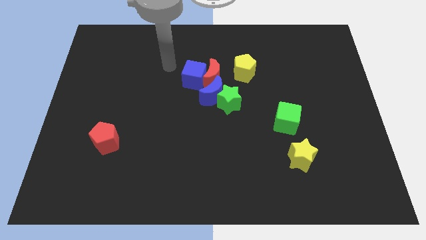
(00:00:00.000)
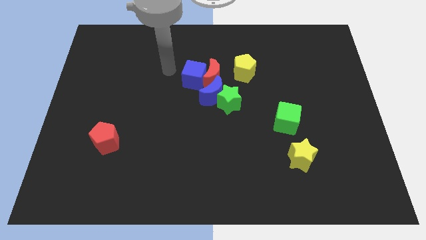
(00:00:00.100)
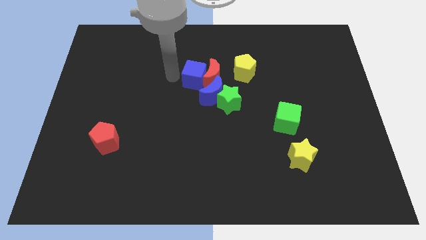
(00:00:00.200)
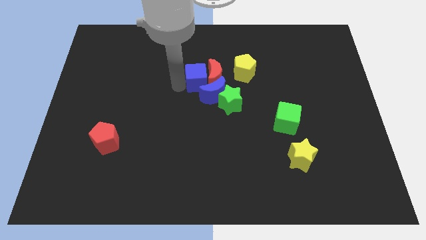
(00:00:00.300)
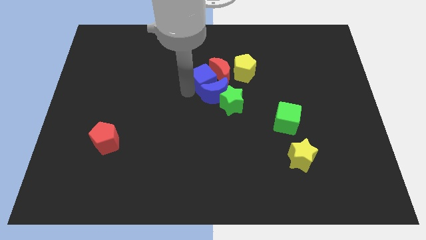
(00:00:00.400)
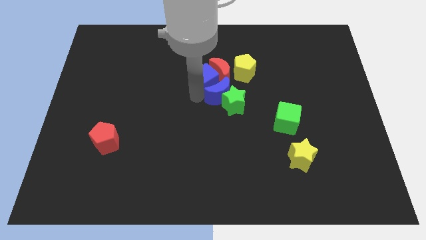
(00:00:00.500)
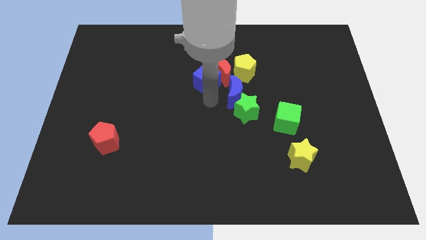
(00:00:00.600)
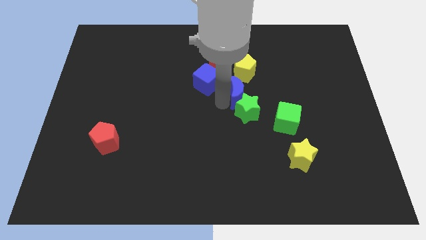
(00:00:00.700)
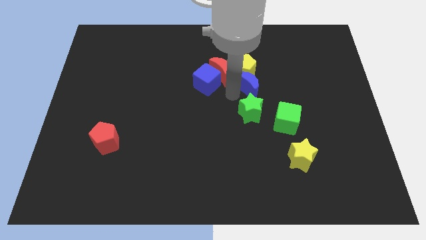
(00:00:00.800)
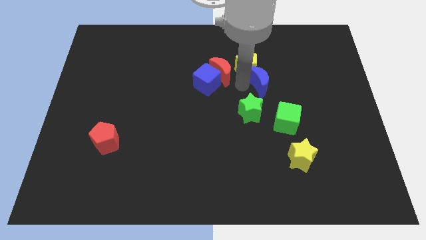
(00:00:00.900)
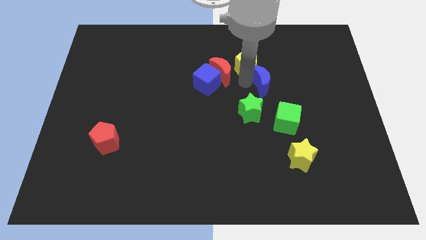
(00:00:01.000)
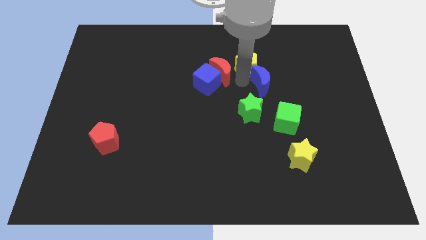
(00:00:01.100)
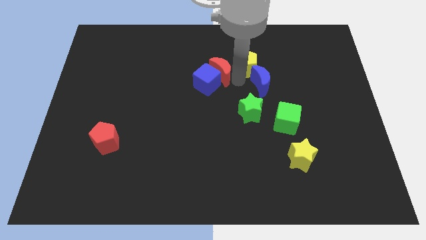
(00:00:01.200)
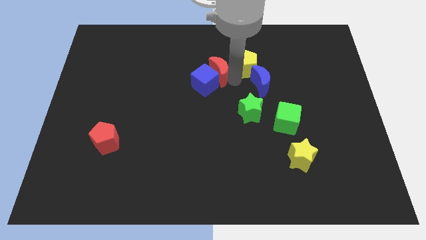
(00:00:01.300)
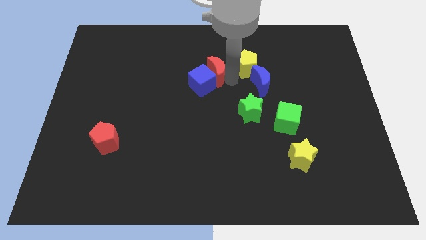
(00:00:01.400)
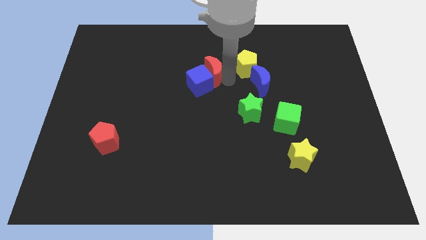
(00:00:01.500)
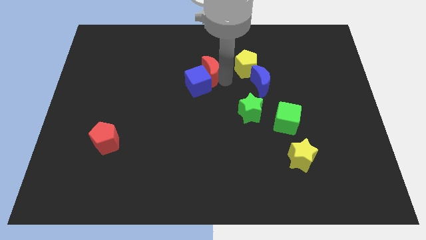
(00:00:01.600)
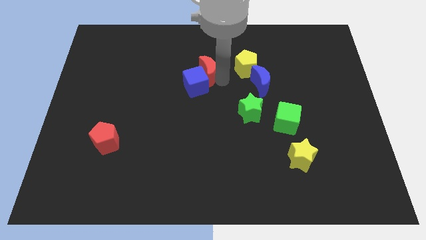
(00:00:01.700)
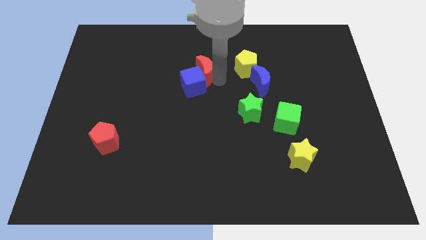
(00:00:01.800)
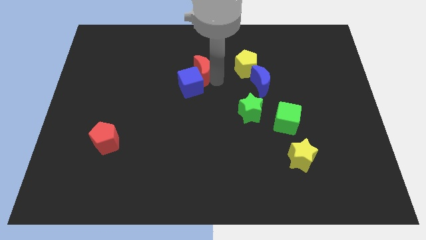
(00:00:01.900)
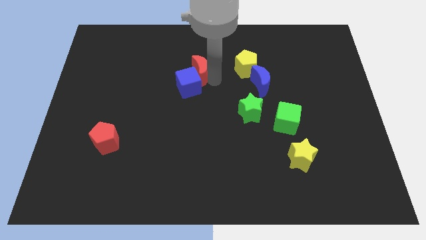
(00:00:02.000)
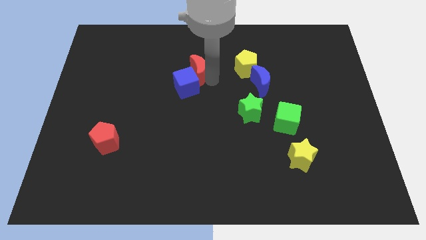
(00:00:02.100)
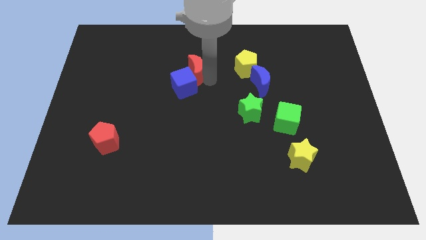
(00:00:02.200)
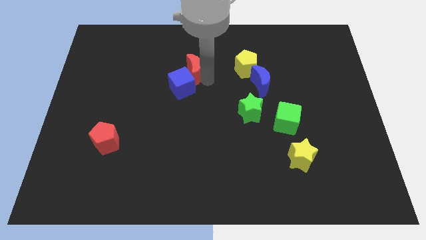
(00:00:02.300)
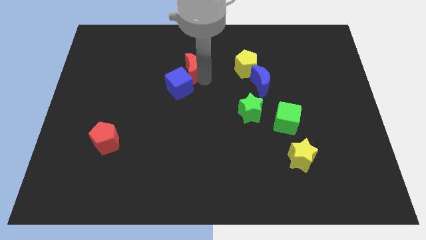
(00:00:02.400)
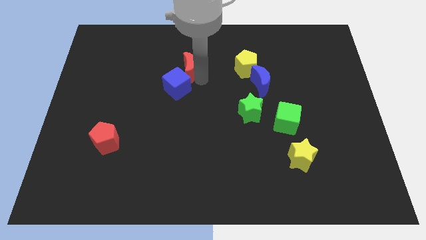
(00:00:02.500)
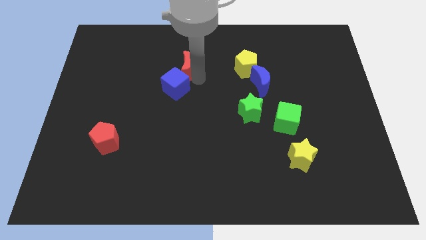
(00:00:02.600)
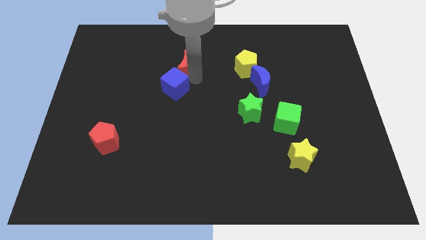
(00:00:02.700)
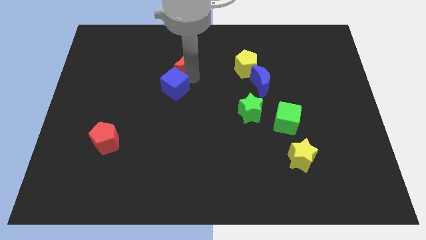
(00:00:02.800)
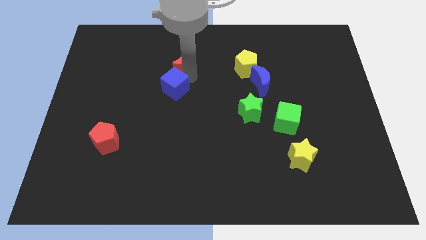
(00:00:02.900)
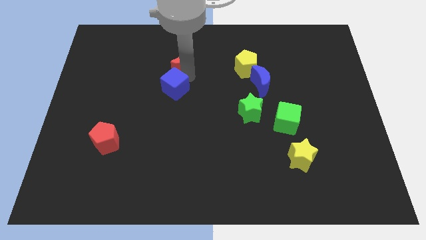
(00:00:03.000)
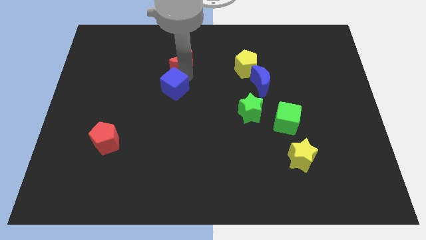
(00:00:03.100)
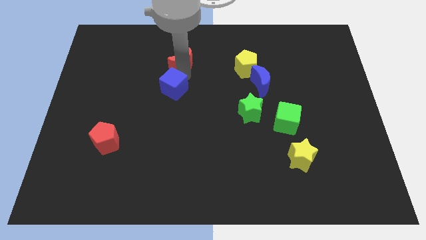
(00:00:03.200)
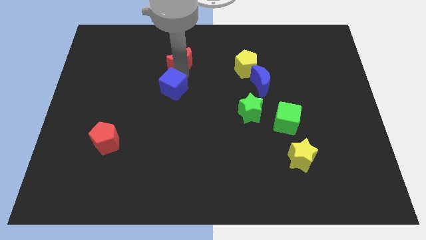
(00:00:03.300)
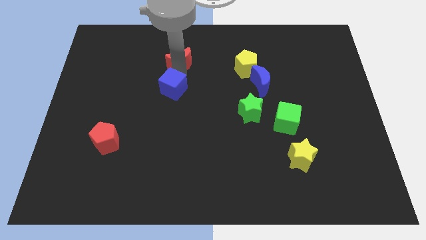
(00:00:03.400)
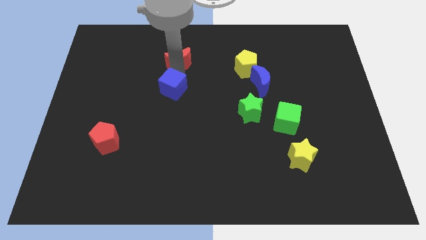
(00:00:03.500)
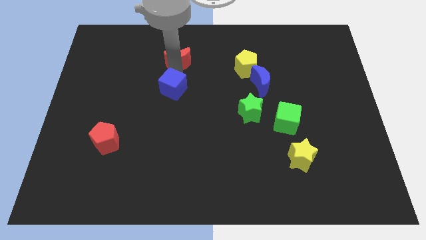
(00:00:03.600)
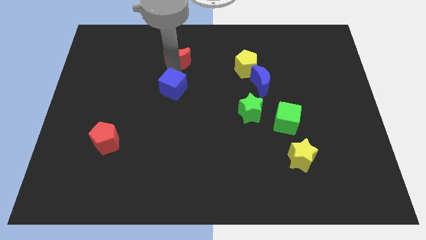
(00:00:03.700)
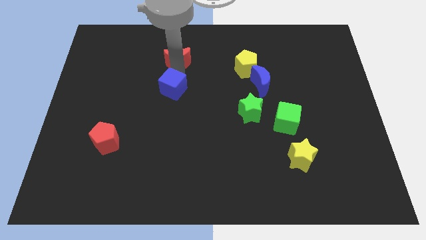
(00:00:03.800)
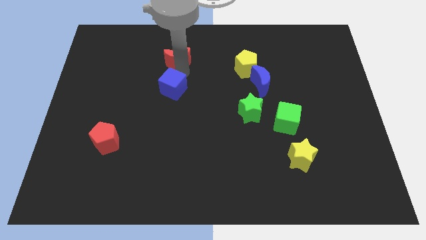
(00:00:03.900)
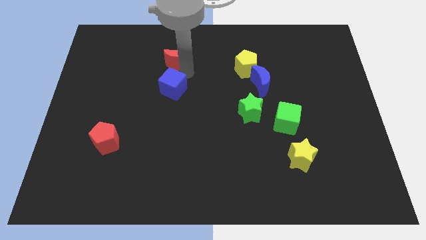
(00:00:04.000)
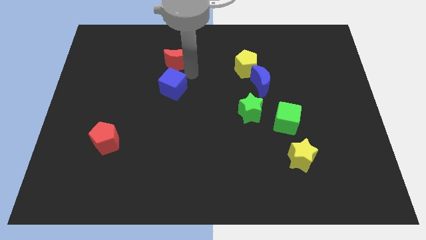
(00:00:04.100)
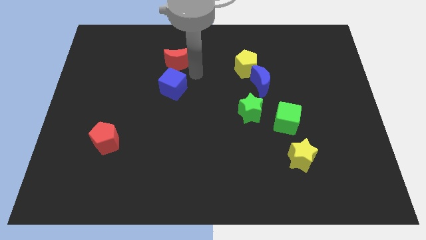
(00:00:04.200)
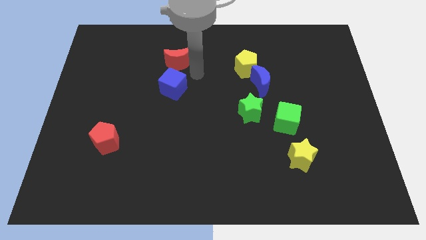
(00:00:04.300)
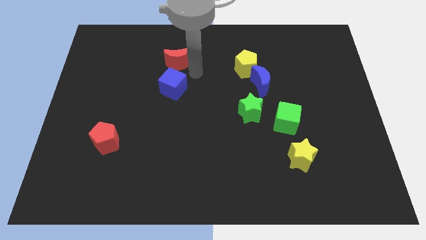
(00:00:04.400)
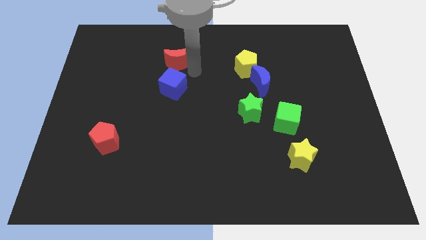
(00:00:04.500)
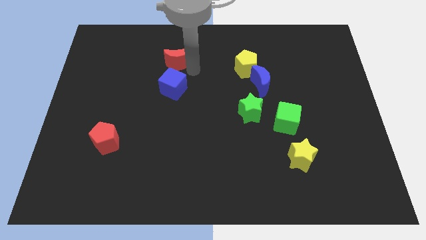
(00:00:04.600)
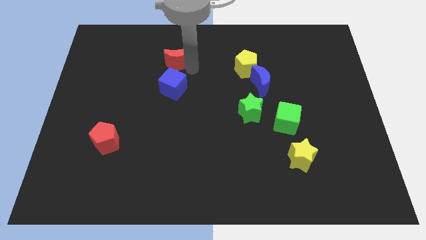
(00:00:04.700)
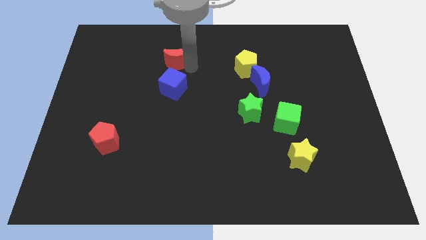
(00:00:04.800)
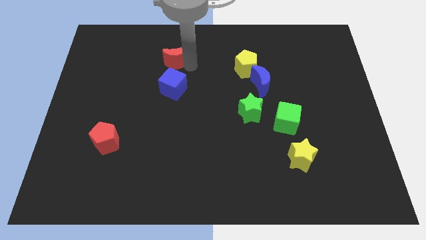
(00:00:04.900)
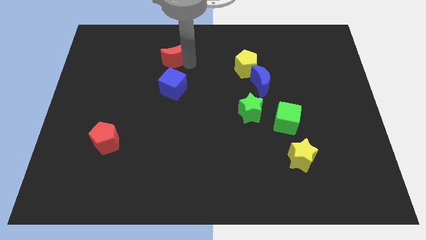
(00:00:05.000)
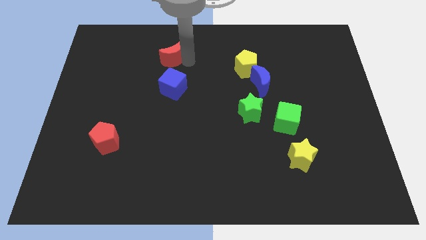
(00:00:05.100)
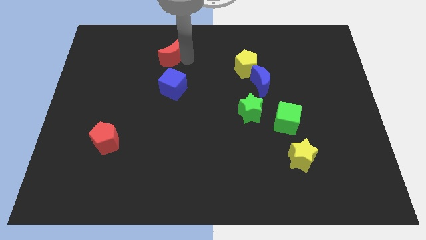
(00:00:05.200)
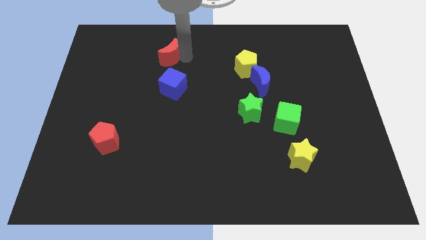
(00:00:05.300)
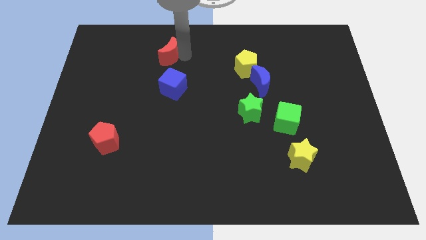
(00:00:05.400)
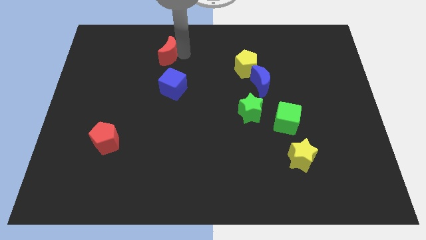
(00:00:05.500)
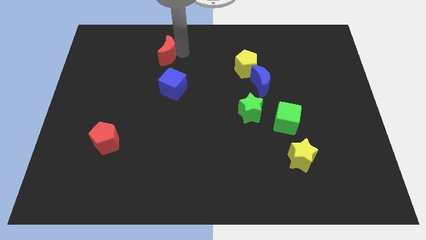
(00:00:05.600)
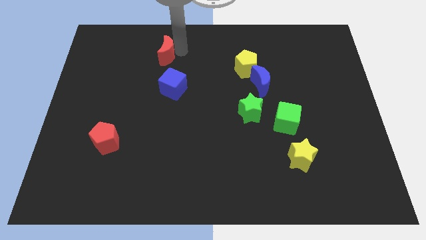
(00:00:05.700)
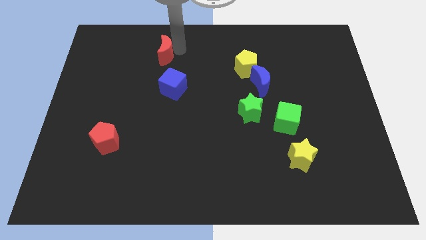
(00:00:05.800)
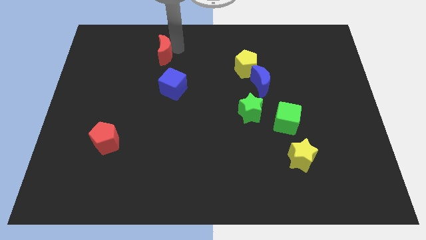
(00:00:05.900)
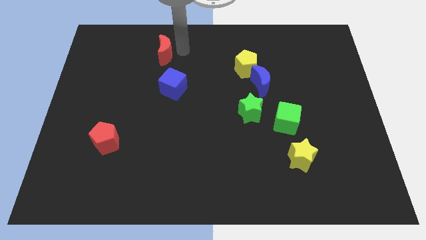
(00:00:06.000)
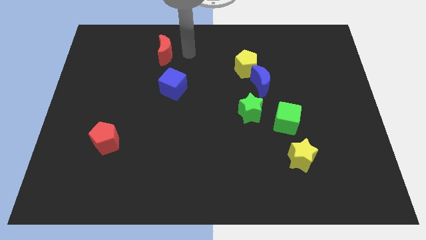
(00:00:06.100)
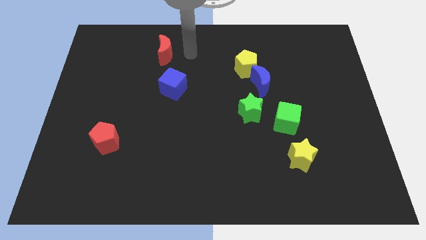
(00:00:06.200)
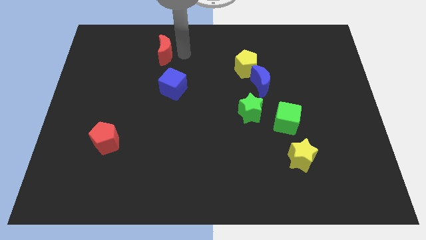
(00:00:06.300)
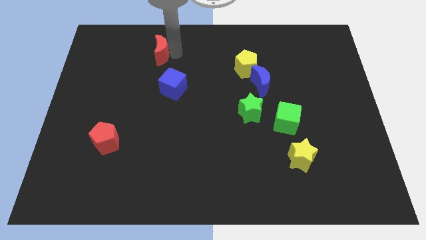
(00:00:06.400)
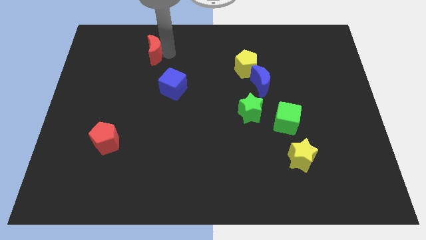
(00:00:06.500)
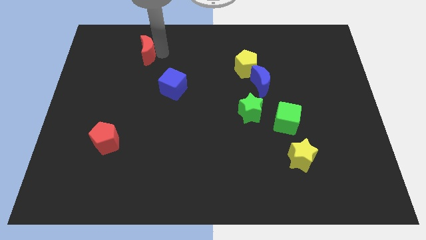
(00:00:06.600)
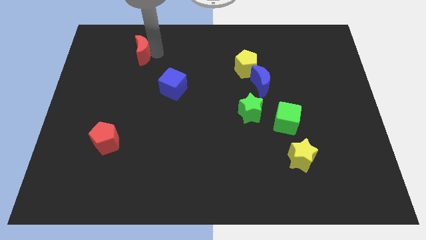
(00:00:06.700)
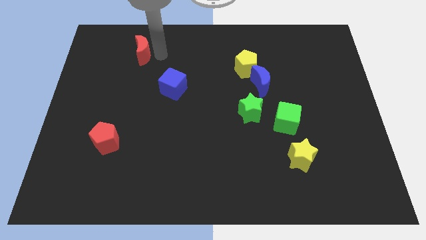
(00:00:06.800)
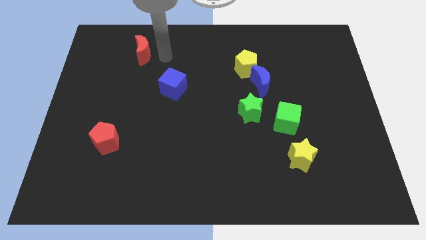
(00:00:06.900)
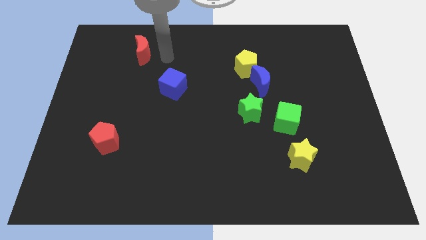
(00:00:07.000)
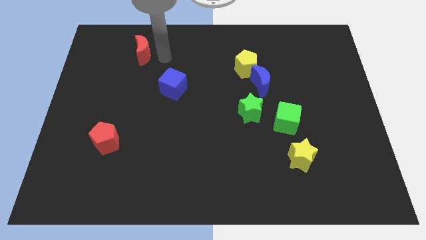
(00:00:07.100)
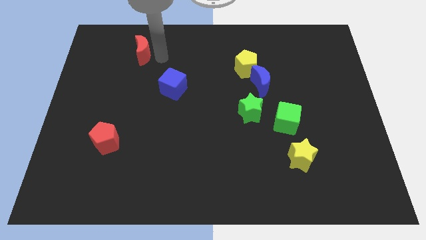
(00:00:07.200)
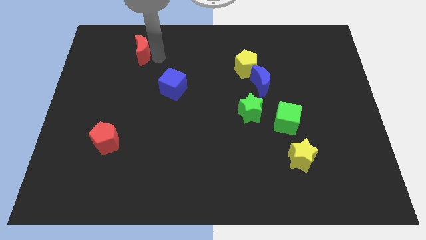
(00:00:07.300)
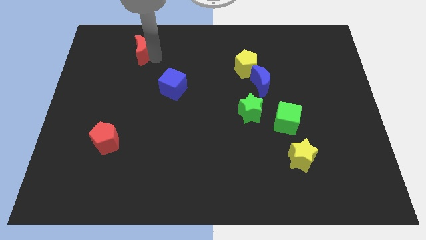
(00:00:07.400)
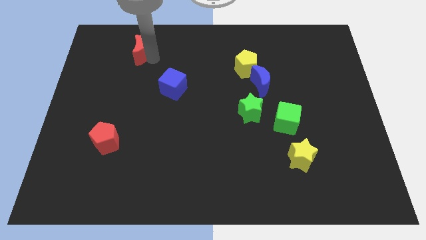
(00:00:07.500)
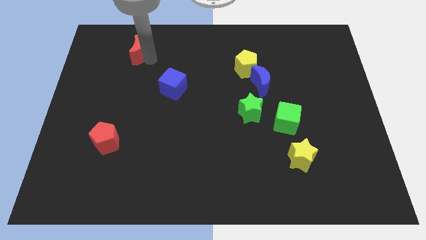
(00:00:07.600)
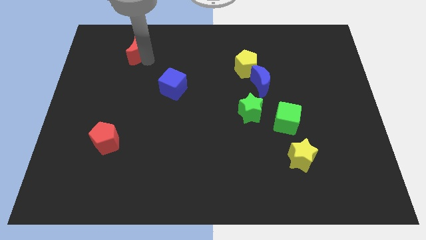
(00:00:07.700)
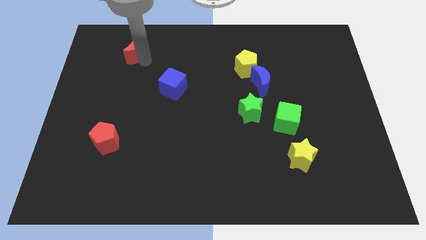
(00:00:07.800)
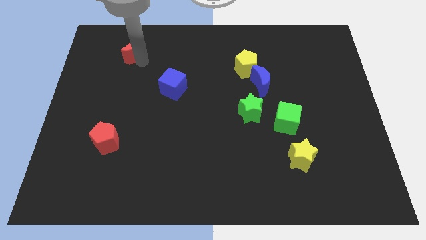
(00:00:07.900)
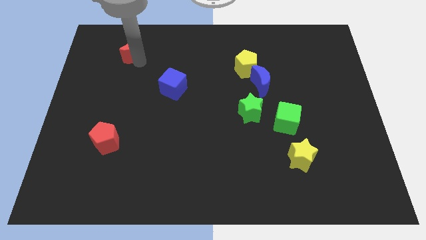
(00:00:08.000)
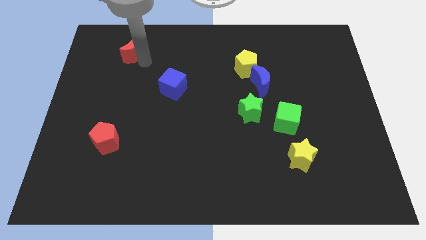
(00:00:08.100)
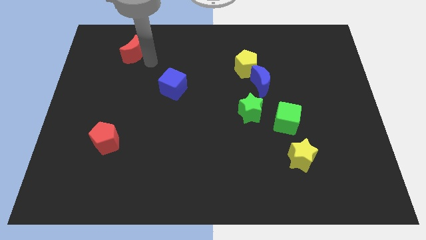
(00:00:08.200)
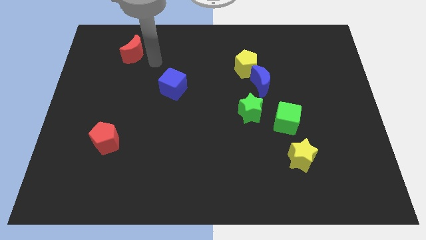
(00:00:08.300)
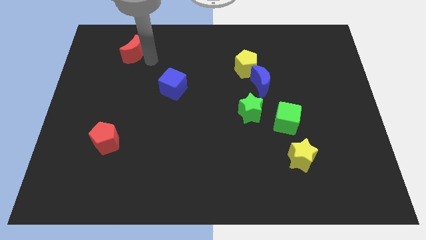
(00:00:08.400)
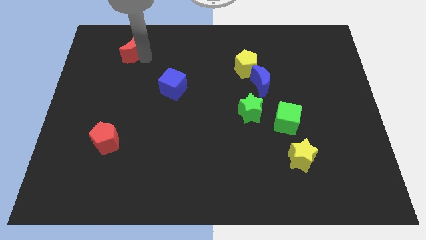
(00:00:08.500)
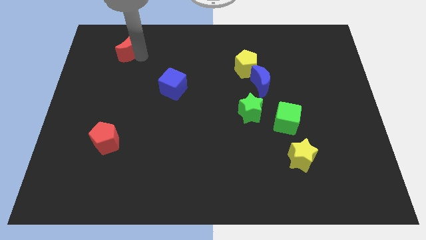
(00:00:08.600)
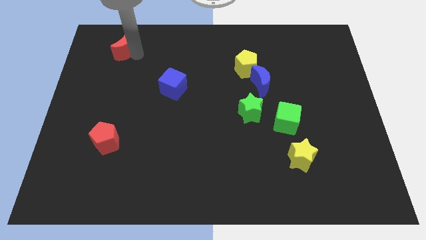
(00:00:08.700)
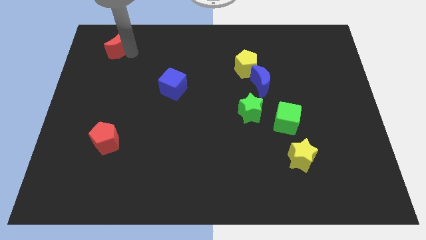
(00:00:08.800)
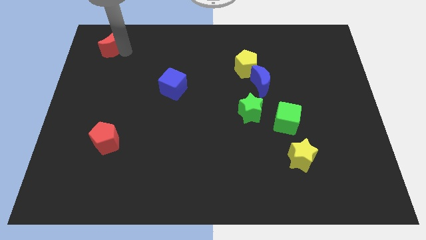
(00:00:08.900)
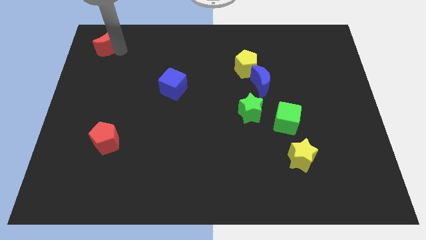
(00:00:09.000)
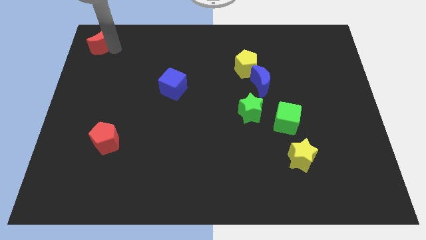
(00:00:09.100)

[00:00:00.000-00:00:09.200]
slide the red moon to the top left of the board
